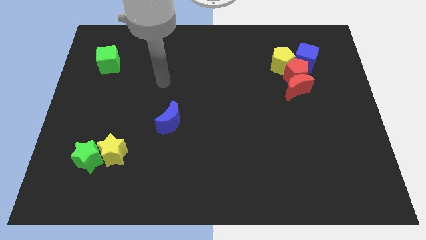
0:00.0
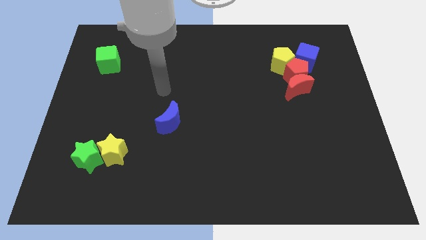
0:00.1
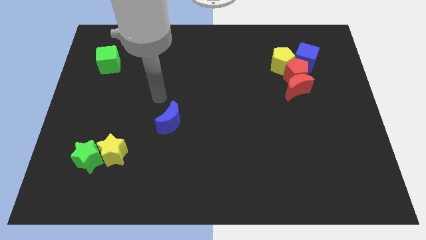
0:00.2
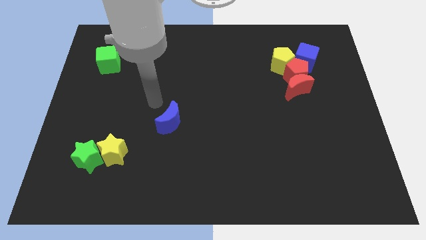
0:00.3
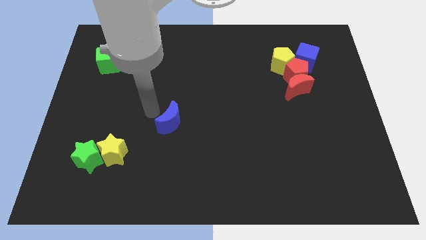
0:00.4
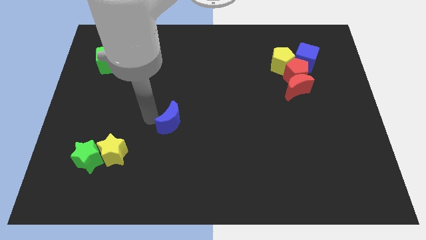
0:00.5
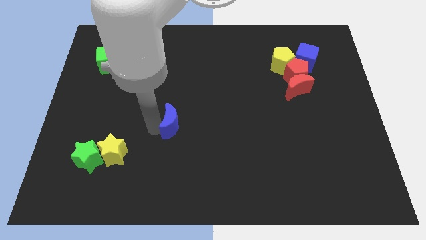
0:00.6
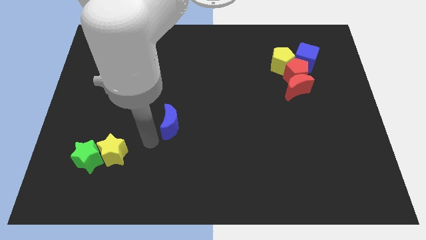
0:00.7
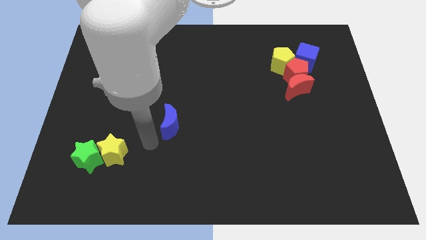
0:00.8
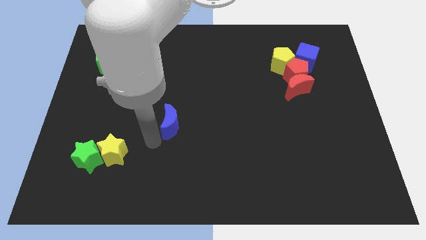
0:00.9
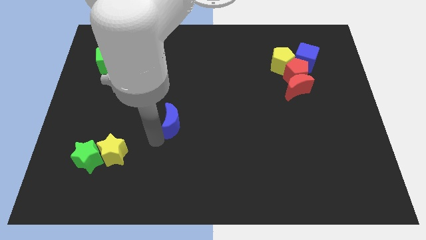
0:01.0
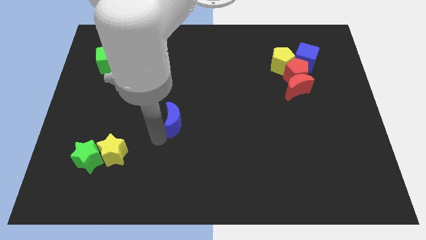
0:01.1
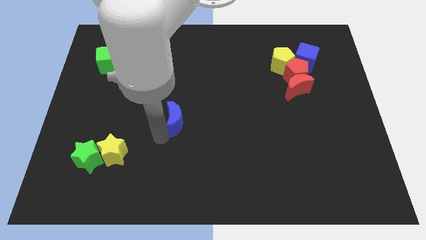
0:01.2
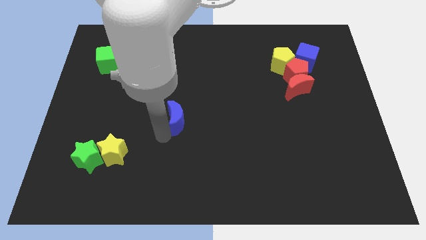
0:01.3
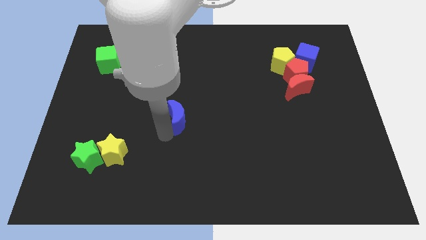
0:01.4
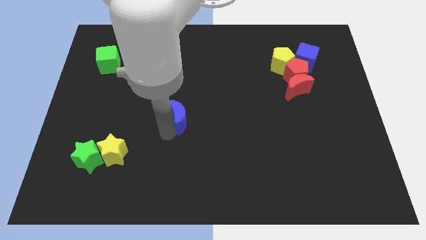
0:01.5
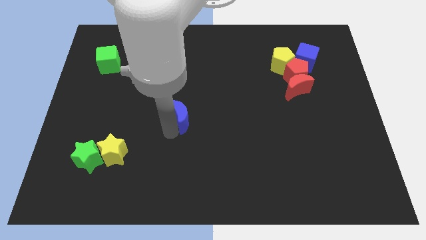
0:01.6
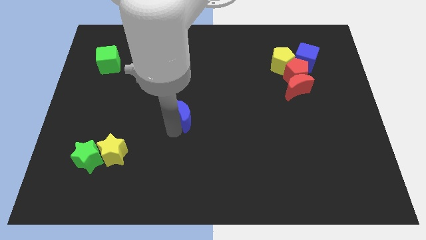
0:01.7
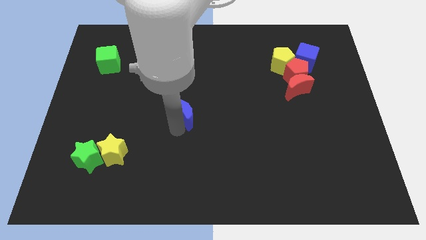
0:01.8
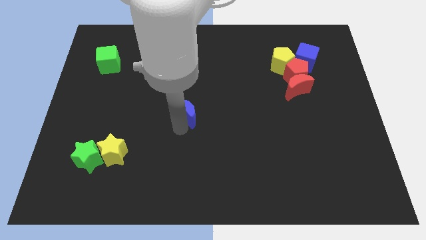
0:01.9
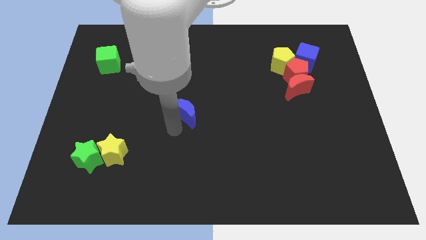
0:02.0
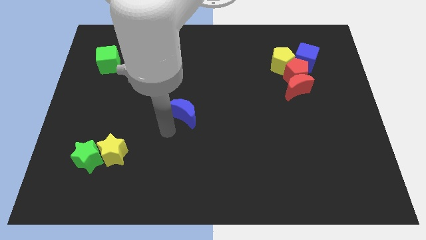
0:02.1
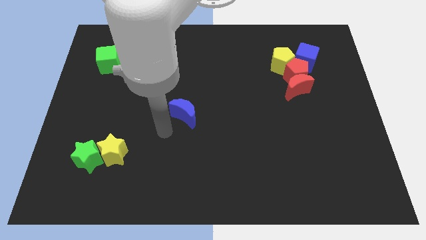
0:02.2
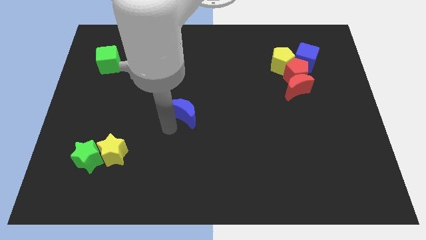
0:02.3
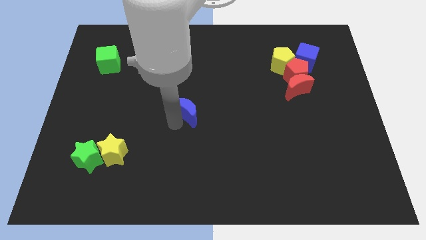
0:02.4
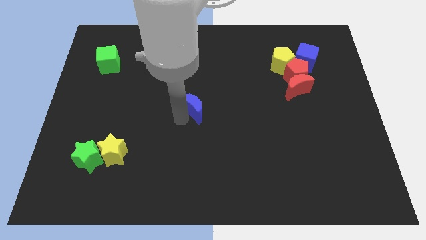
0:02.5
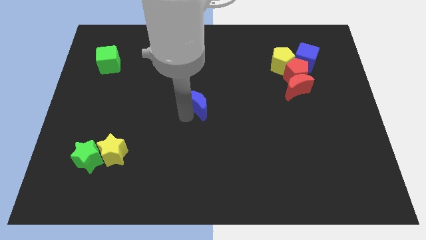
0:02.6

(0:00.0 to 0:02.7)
slide the blue moon diagonally upwards and to the right a little

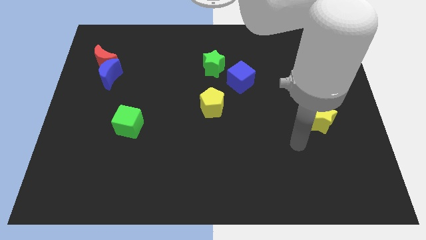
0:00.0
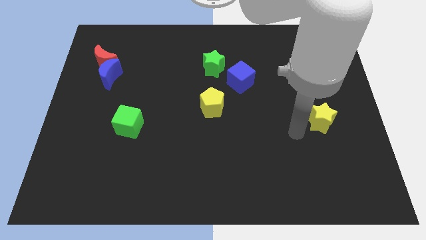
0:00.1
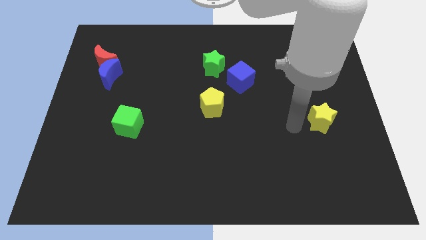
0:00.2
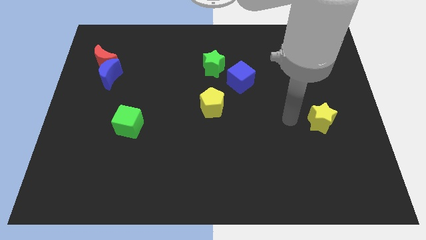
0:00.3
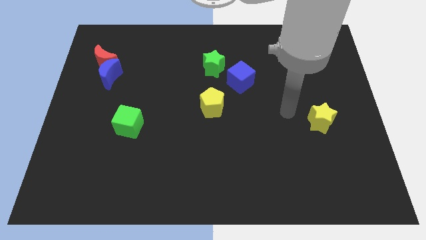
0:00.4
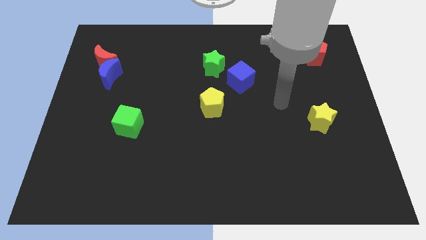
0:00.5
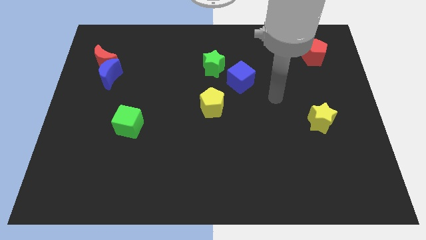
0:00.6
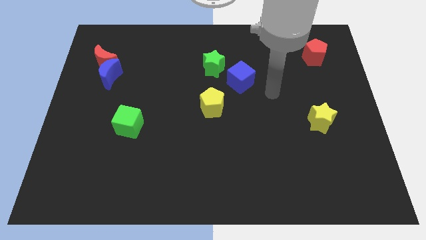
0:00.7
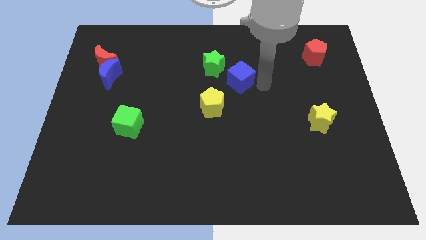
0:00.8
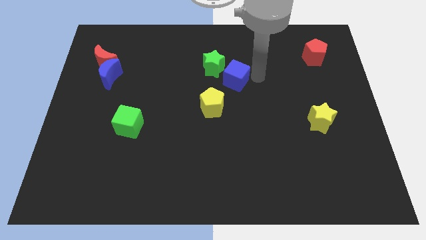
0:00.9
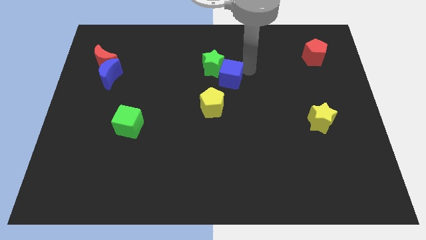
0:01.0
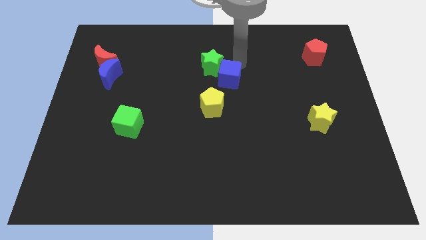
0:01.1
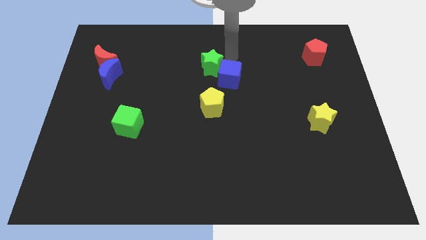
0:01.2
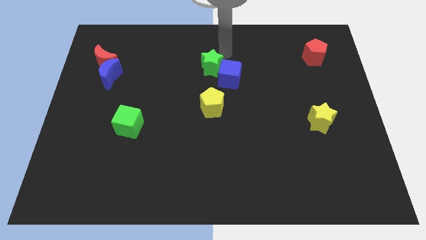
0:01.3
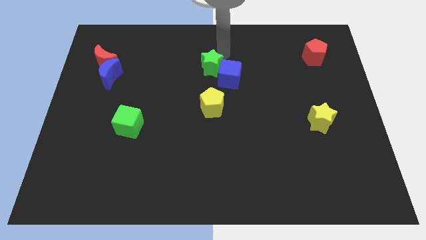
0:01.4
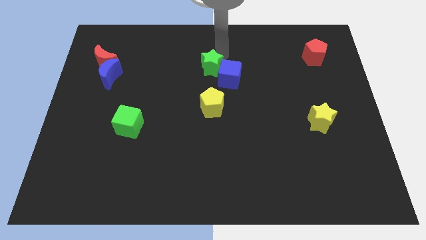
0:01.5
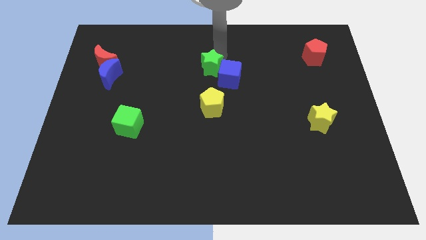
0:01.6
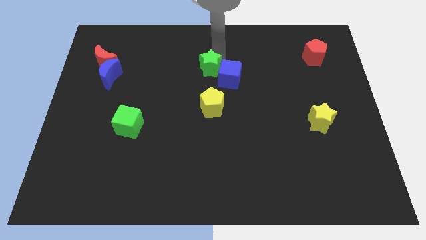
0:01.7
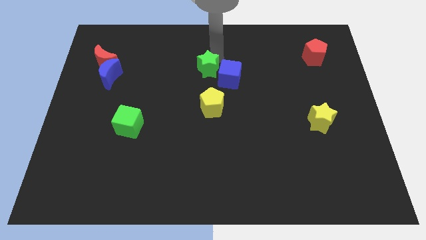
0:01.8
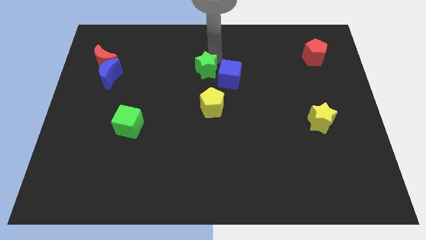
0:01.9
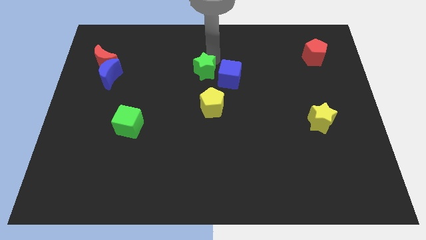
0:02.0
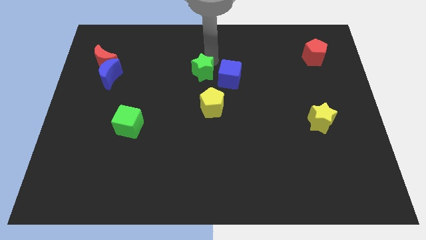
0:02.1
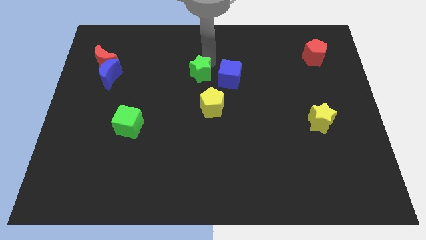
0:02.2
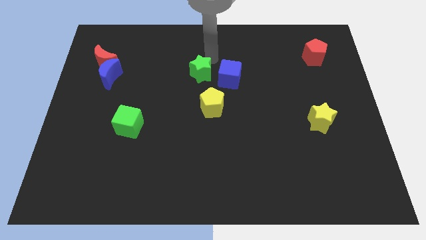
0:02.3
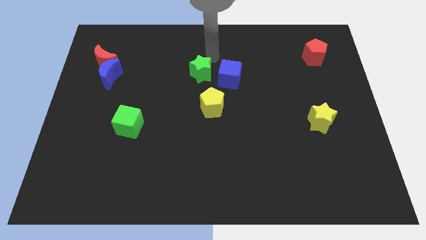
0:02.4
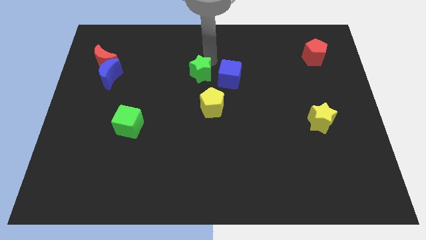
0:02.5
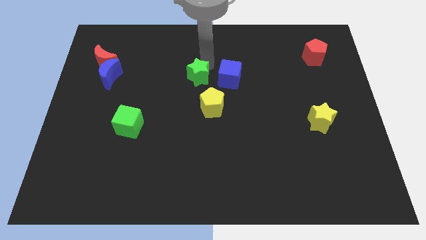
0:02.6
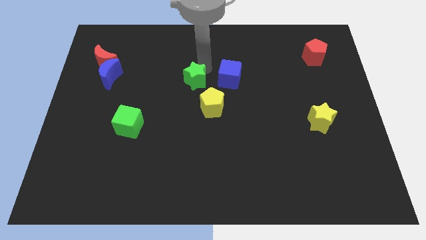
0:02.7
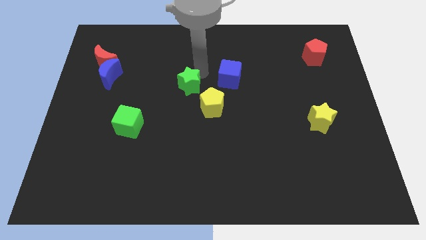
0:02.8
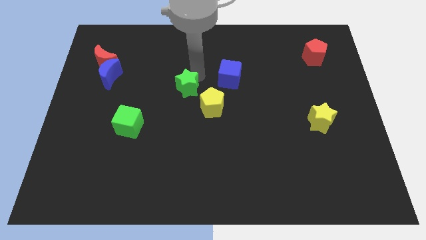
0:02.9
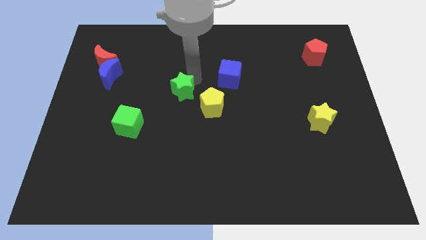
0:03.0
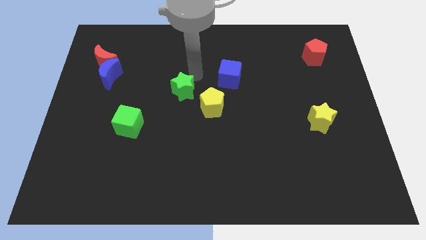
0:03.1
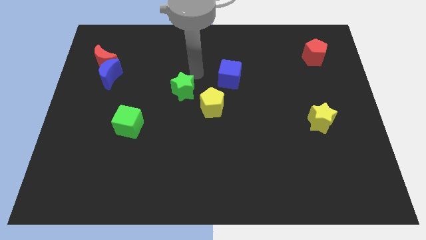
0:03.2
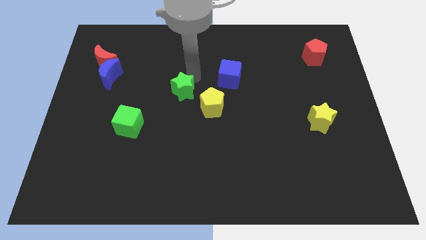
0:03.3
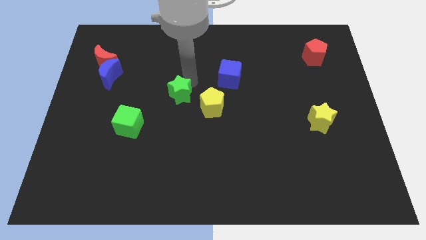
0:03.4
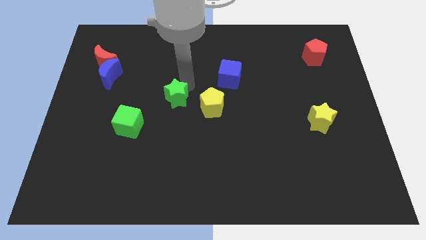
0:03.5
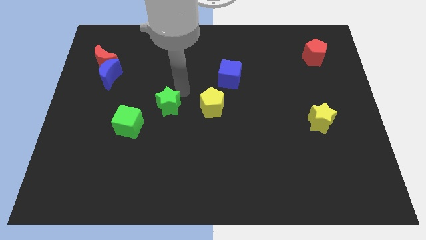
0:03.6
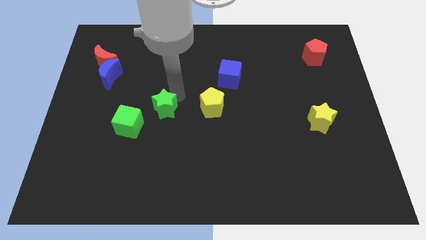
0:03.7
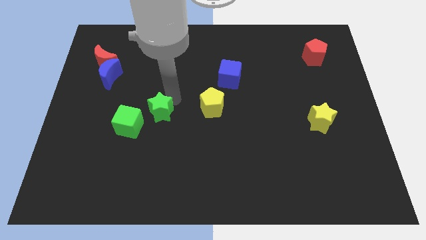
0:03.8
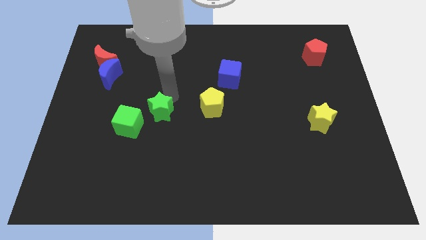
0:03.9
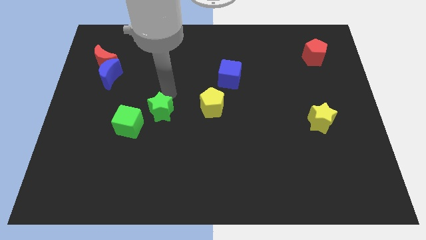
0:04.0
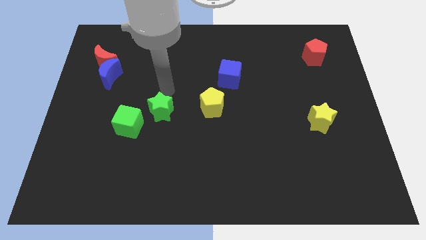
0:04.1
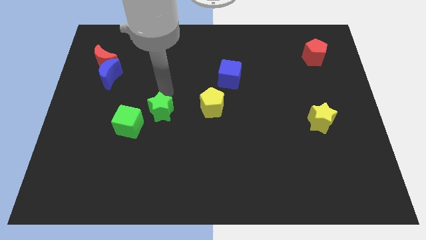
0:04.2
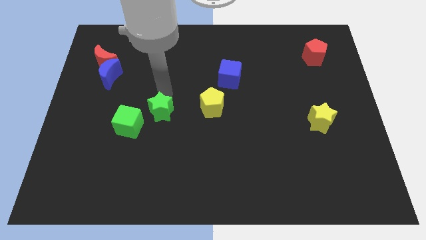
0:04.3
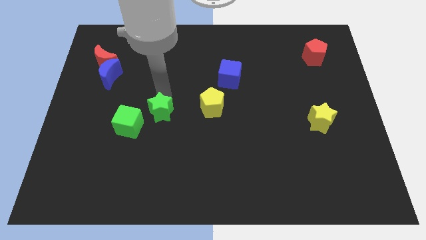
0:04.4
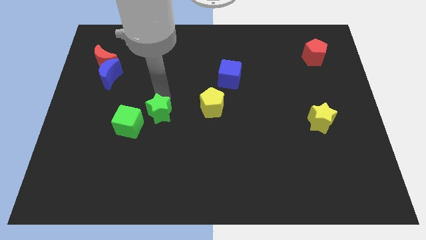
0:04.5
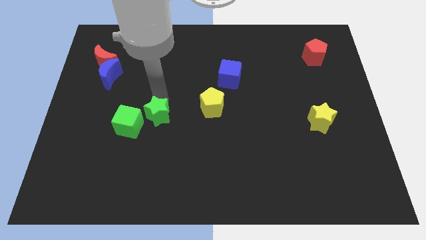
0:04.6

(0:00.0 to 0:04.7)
push the green star downwards and to the left diagonally

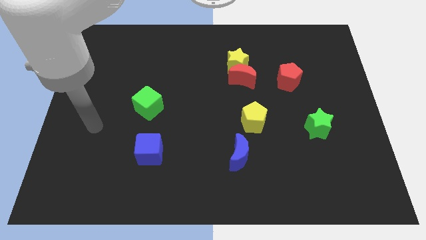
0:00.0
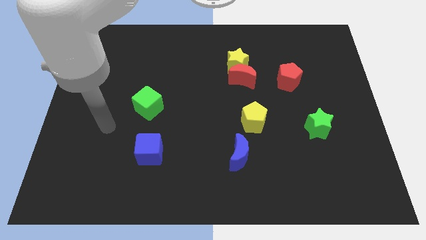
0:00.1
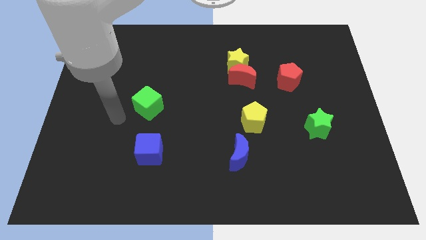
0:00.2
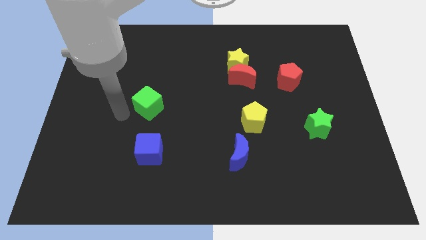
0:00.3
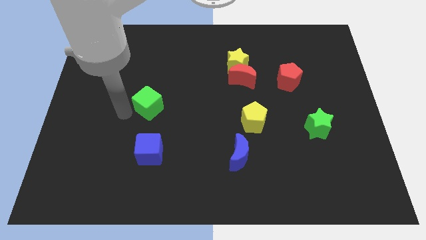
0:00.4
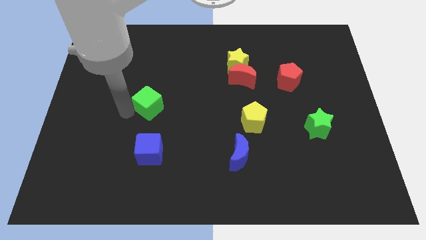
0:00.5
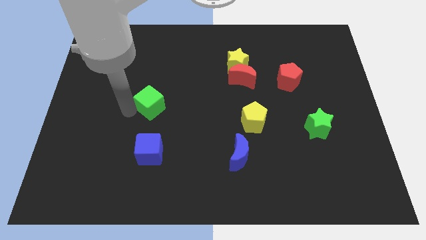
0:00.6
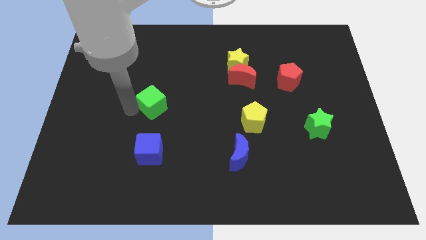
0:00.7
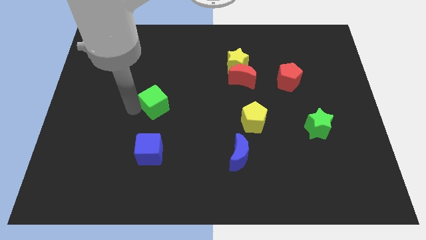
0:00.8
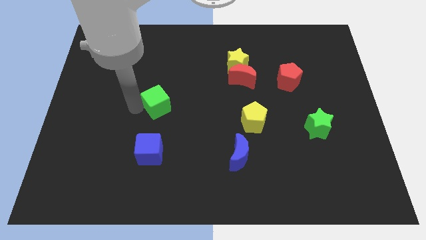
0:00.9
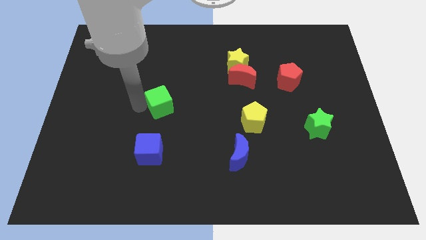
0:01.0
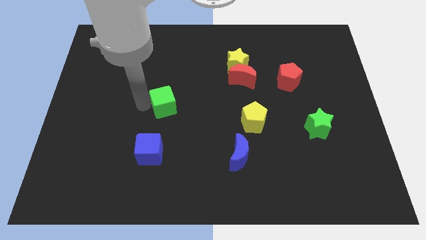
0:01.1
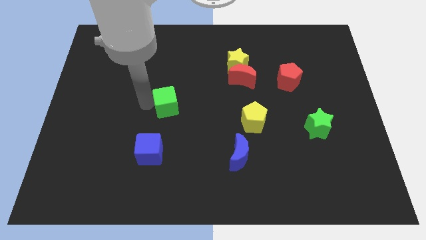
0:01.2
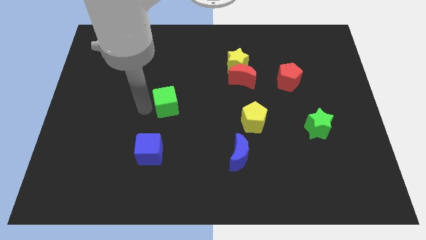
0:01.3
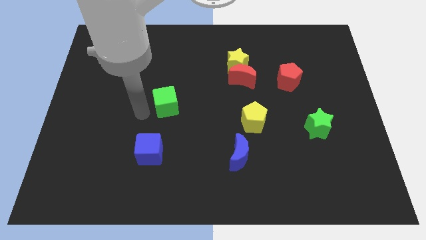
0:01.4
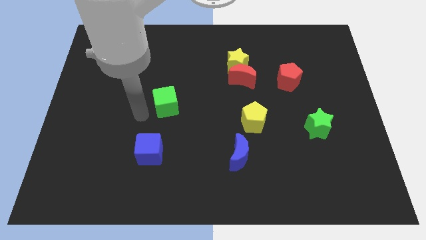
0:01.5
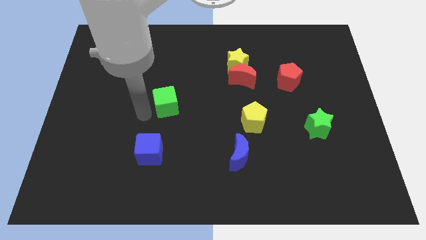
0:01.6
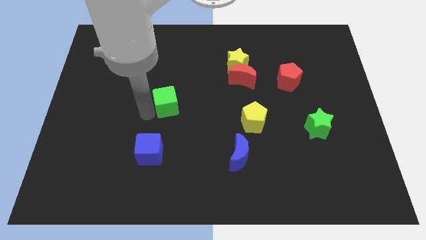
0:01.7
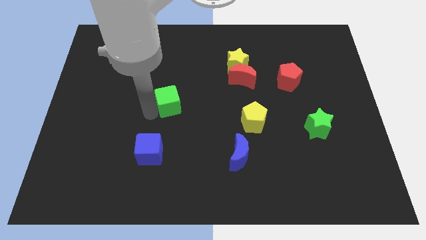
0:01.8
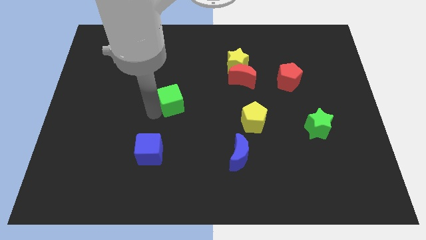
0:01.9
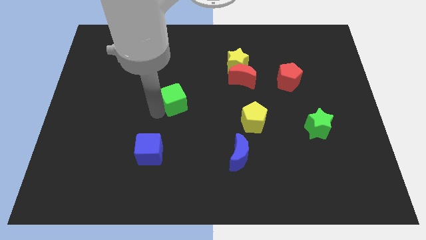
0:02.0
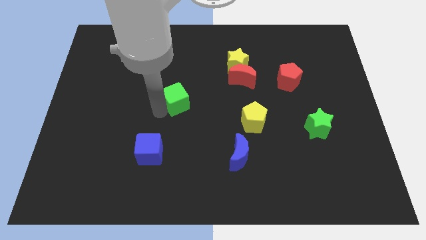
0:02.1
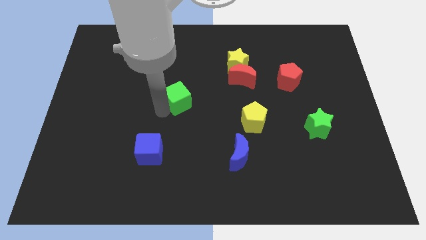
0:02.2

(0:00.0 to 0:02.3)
move the green cube a little bit right
